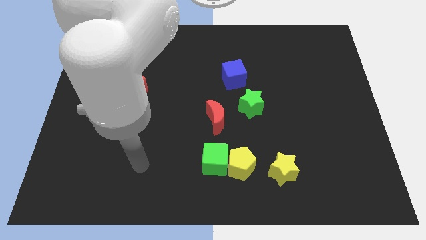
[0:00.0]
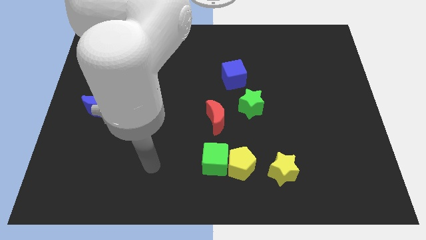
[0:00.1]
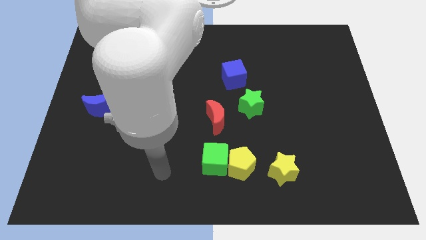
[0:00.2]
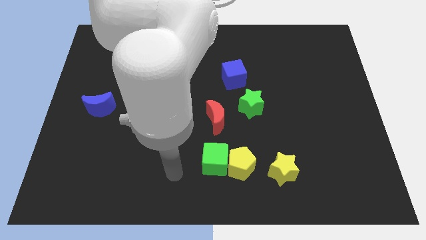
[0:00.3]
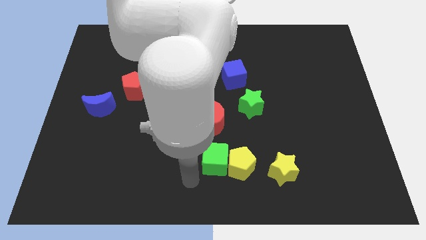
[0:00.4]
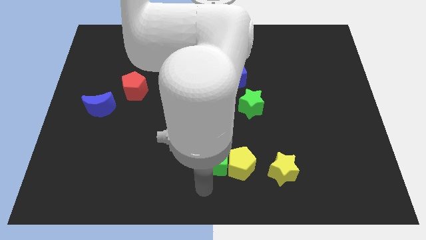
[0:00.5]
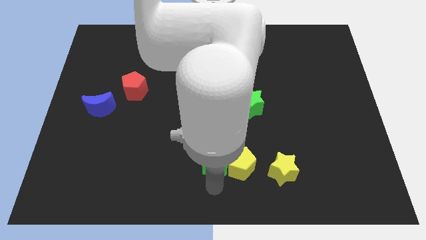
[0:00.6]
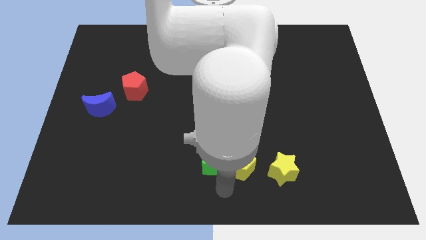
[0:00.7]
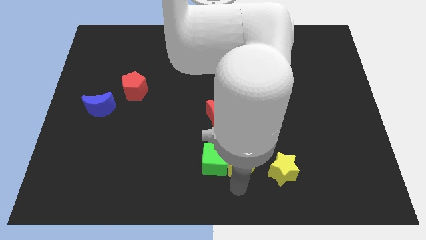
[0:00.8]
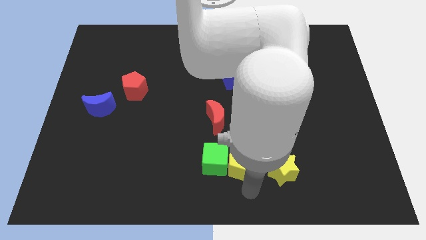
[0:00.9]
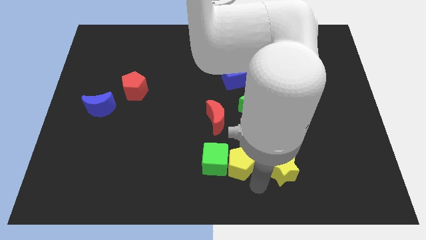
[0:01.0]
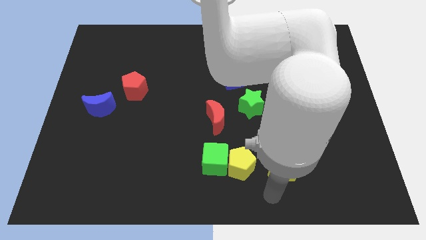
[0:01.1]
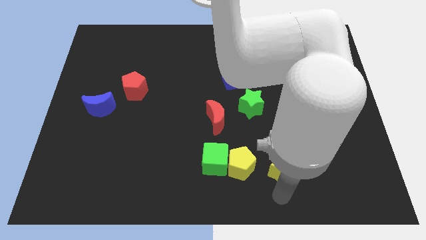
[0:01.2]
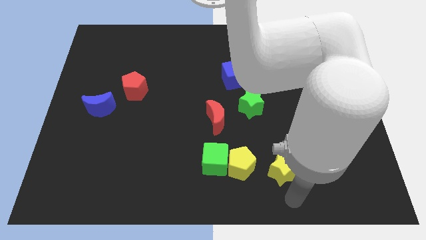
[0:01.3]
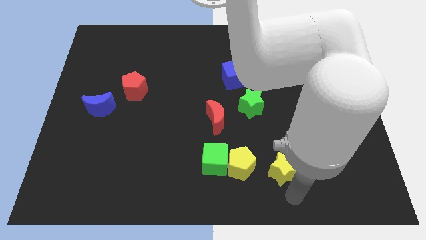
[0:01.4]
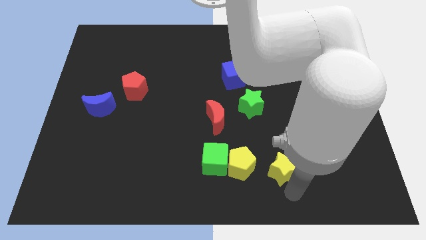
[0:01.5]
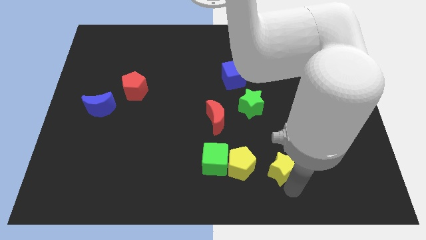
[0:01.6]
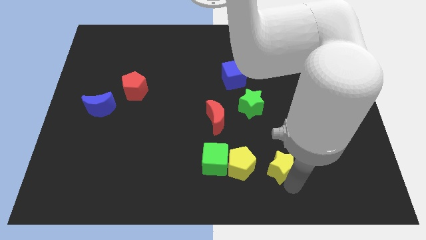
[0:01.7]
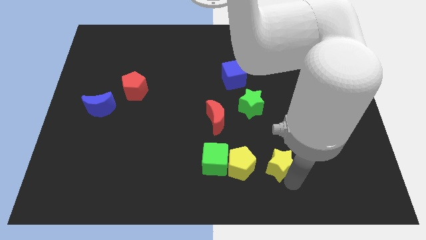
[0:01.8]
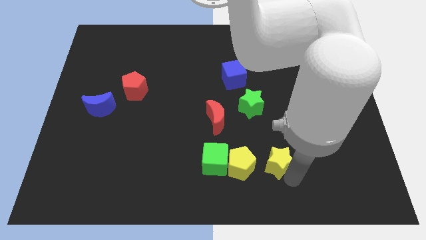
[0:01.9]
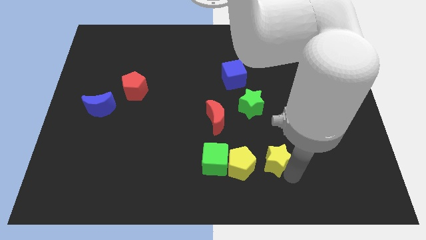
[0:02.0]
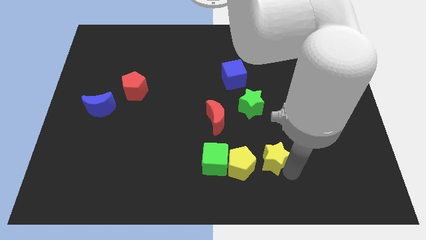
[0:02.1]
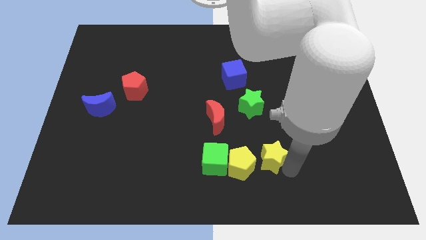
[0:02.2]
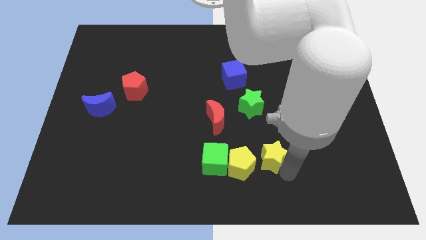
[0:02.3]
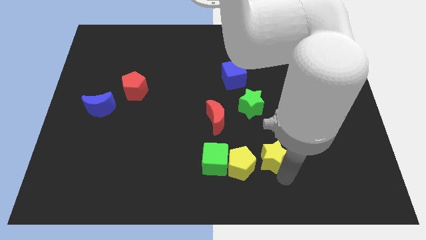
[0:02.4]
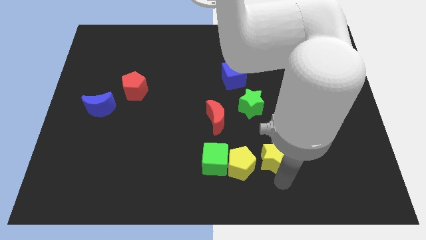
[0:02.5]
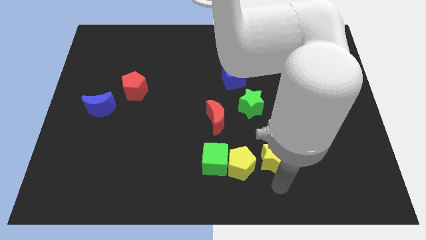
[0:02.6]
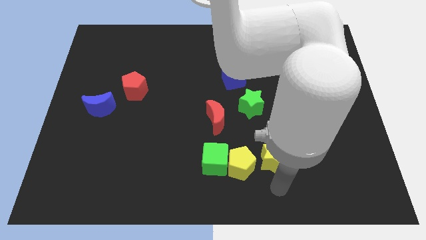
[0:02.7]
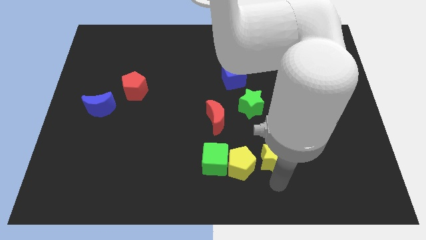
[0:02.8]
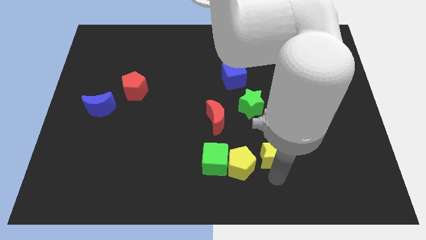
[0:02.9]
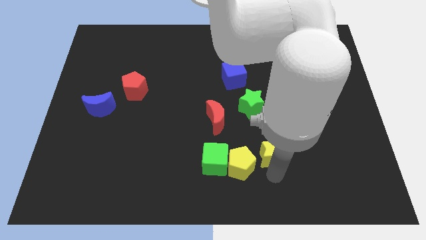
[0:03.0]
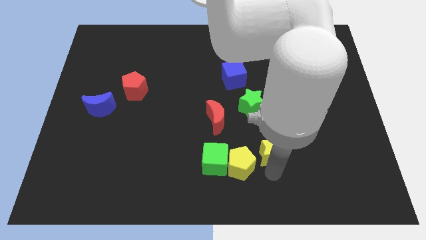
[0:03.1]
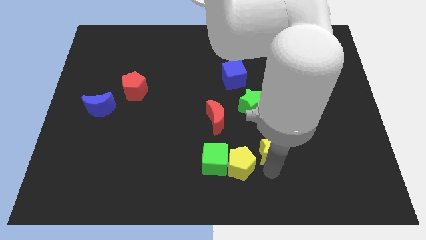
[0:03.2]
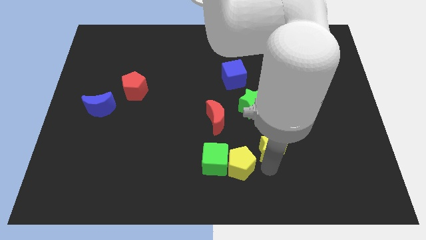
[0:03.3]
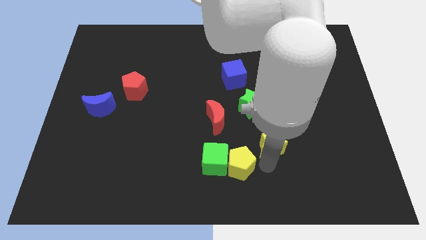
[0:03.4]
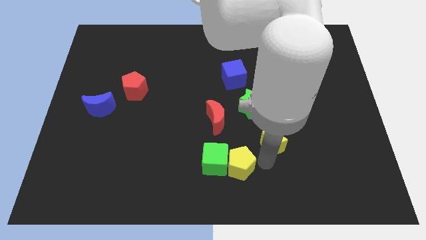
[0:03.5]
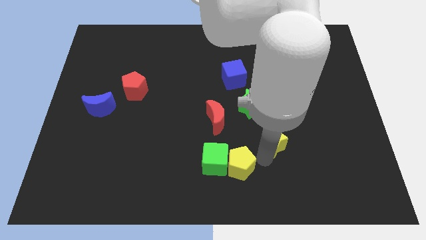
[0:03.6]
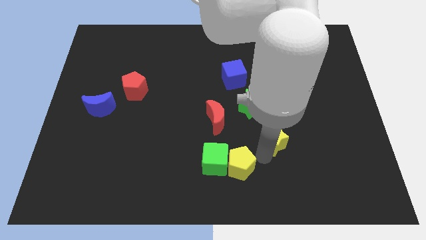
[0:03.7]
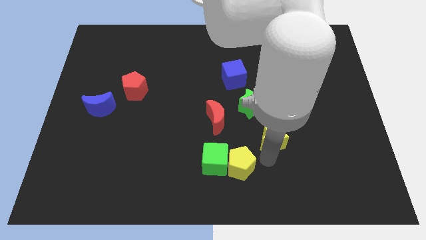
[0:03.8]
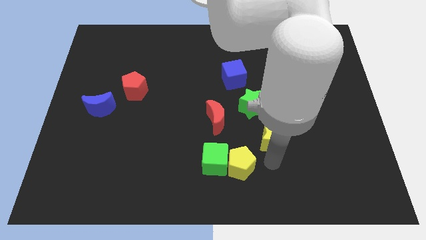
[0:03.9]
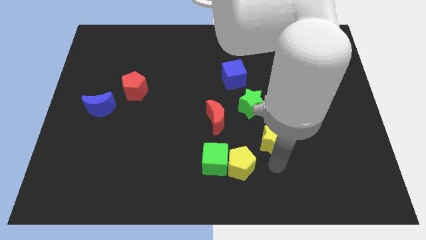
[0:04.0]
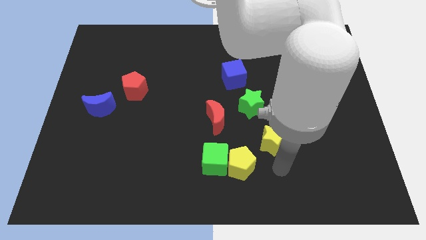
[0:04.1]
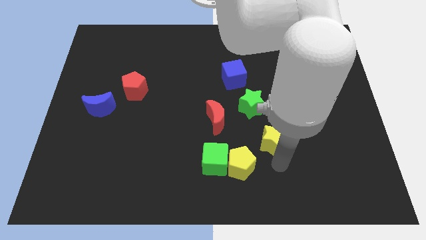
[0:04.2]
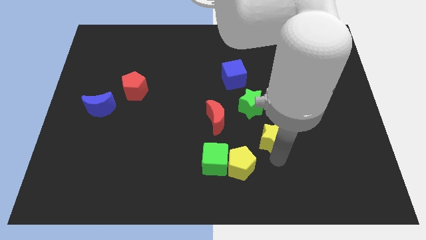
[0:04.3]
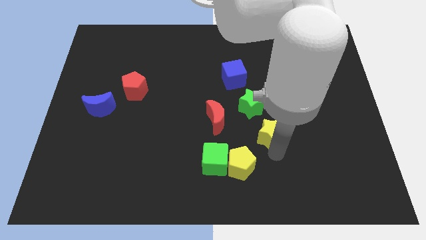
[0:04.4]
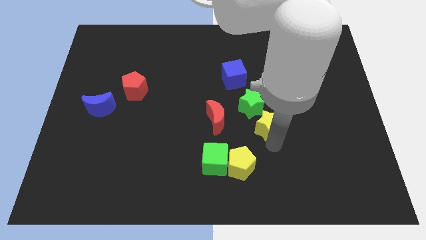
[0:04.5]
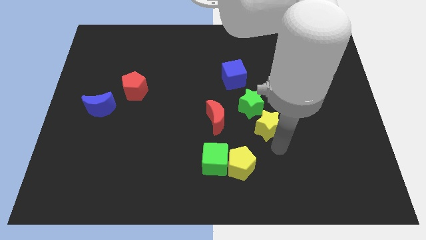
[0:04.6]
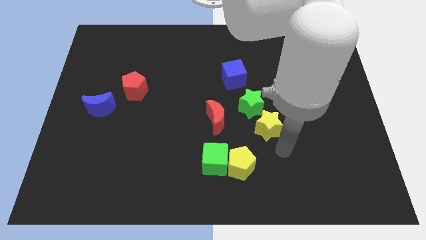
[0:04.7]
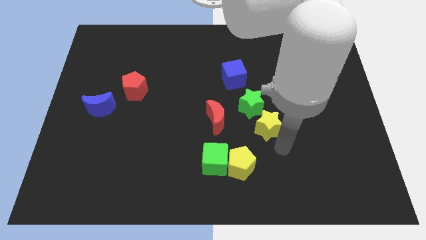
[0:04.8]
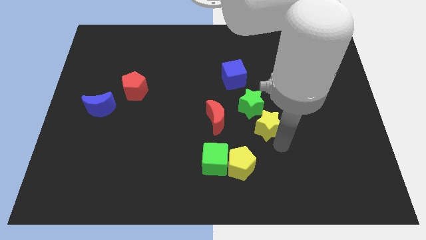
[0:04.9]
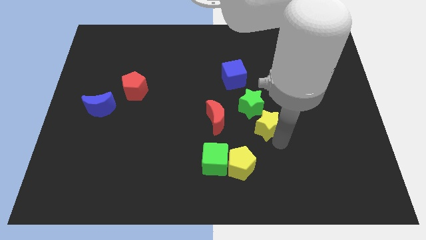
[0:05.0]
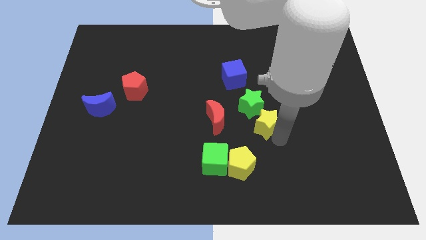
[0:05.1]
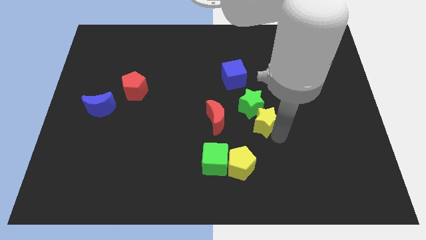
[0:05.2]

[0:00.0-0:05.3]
push the yellow star towards the green star

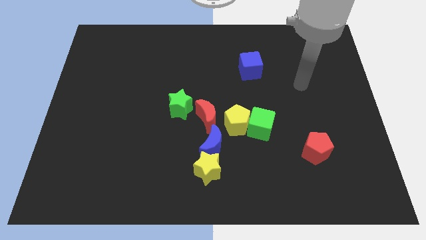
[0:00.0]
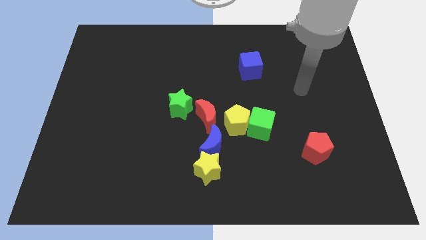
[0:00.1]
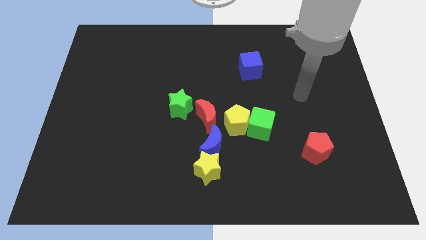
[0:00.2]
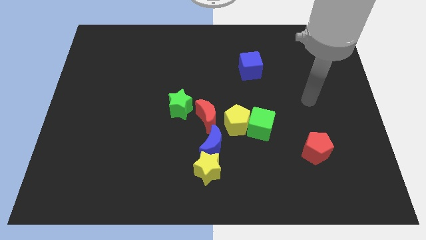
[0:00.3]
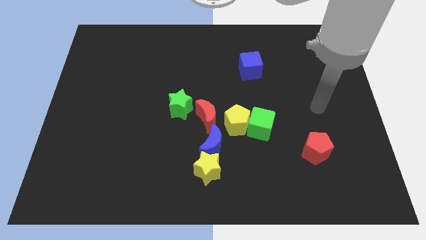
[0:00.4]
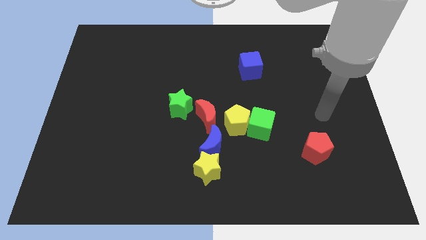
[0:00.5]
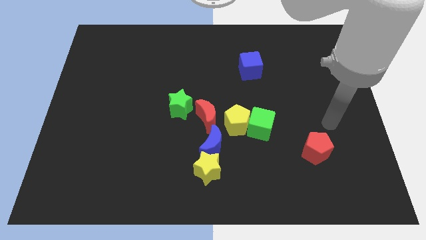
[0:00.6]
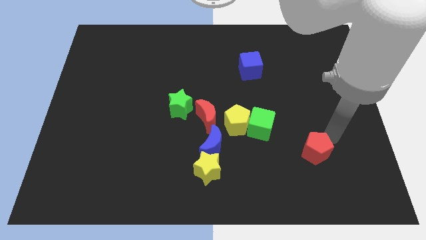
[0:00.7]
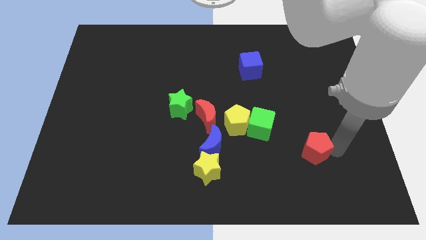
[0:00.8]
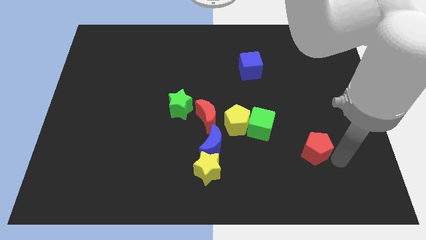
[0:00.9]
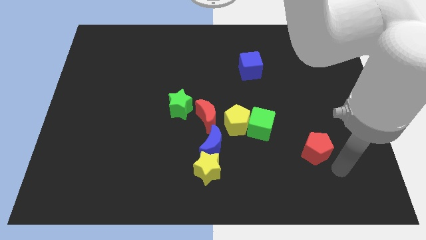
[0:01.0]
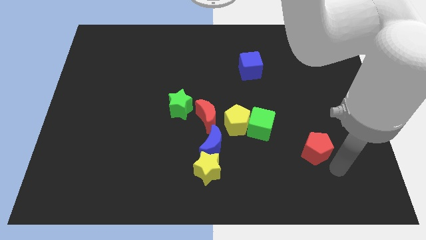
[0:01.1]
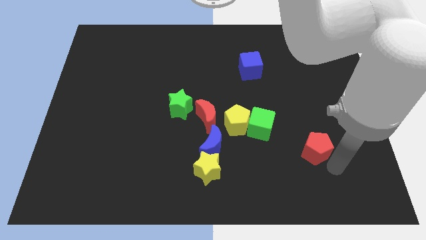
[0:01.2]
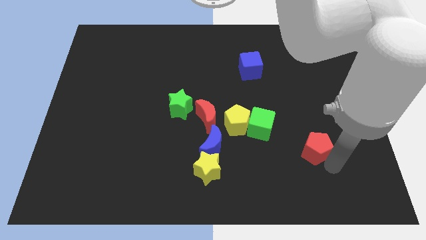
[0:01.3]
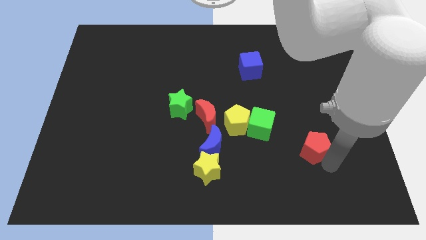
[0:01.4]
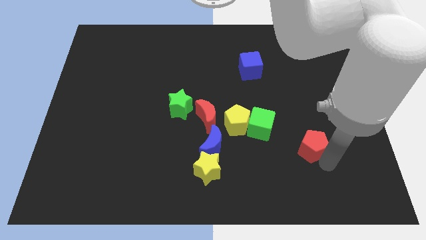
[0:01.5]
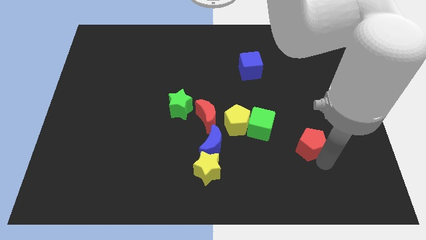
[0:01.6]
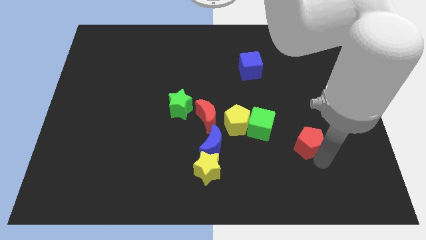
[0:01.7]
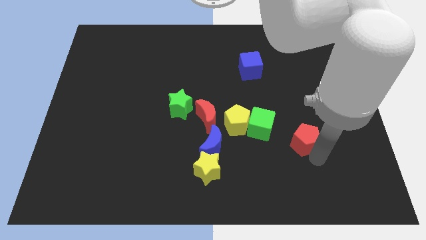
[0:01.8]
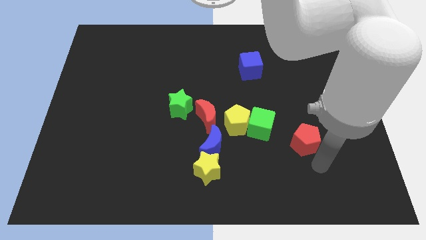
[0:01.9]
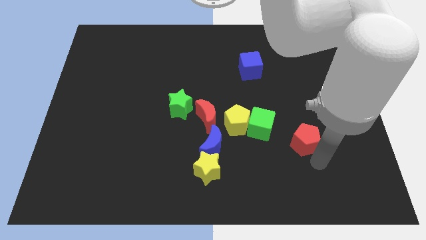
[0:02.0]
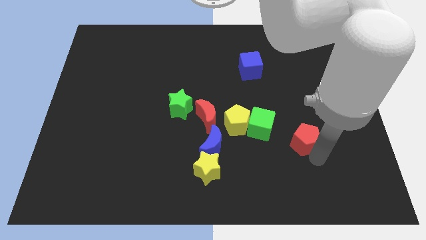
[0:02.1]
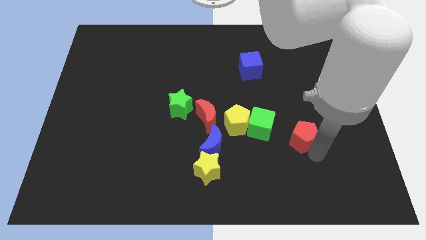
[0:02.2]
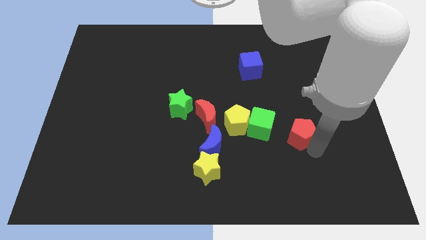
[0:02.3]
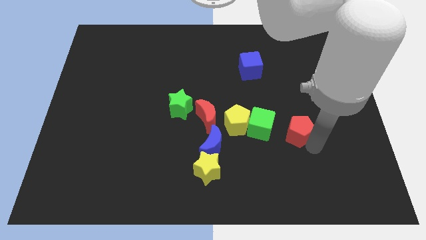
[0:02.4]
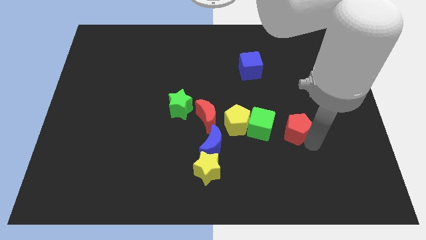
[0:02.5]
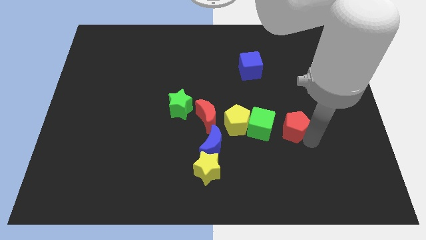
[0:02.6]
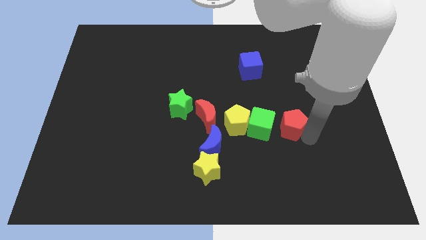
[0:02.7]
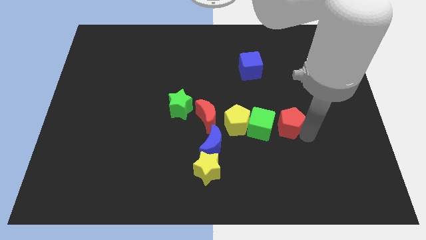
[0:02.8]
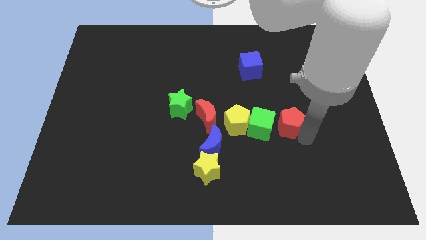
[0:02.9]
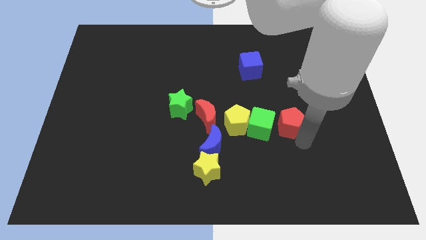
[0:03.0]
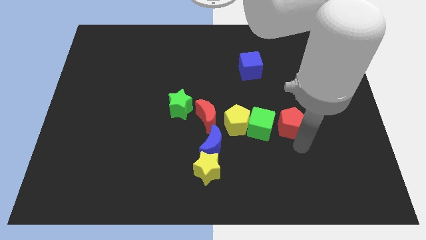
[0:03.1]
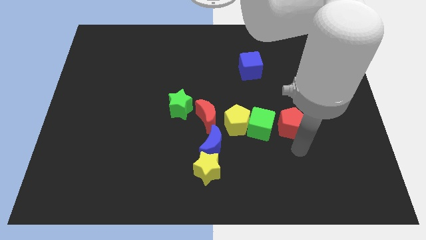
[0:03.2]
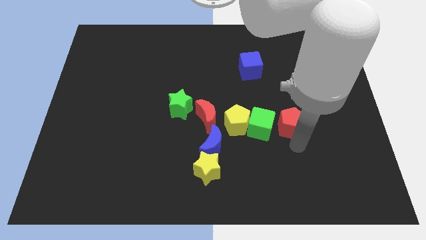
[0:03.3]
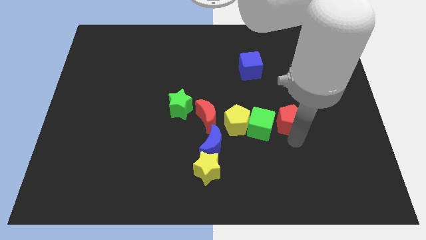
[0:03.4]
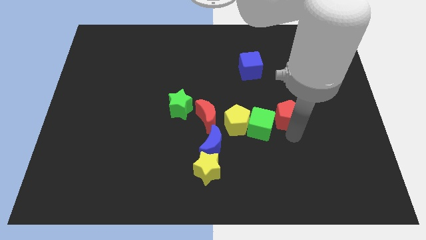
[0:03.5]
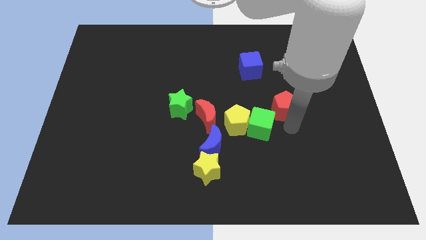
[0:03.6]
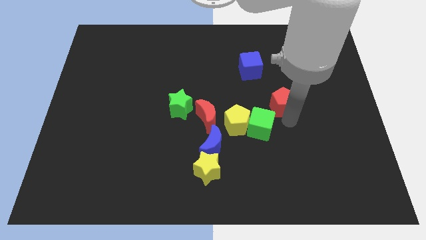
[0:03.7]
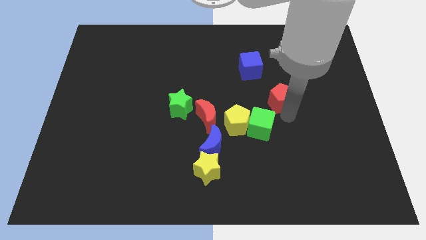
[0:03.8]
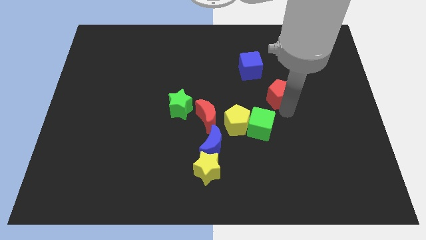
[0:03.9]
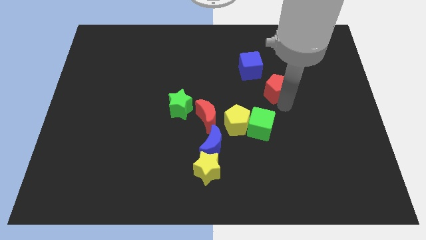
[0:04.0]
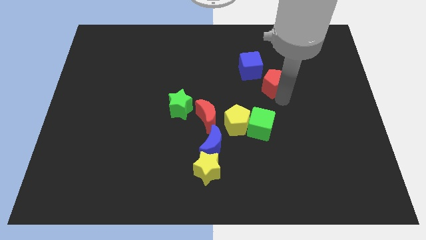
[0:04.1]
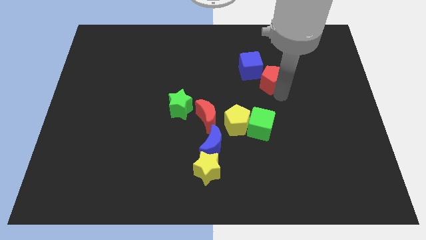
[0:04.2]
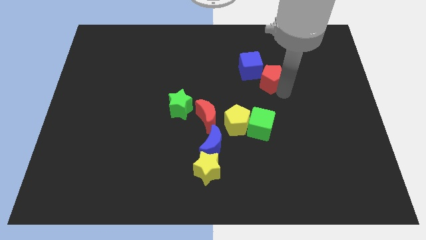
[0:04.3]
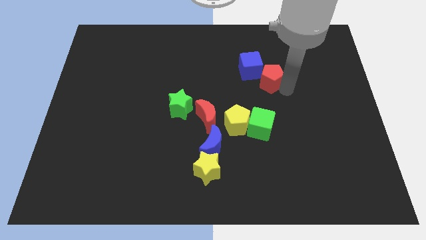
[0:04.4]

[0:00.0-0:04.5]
move the red pentagon towards the blue cube
